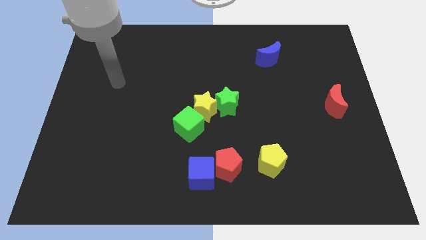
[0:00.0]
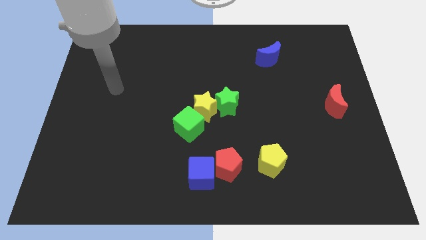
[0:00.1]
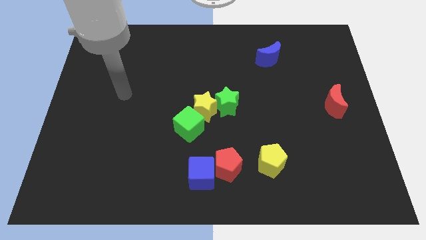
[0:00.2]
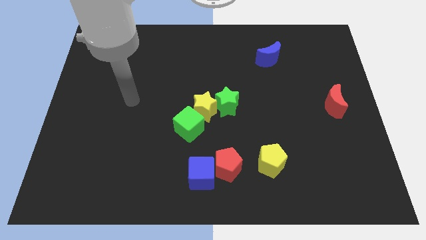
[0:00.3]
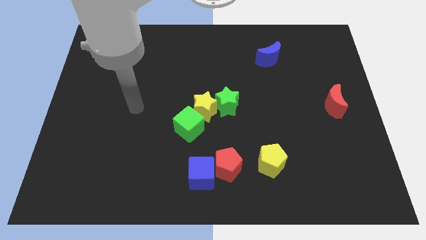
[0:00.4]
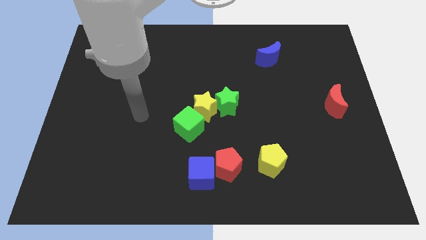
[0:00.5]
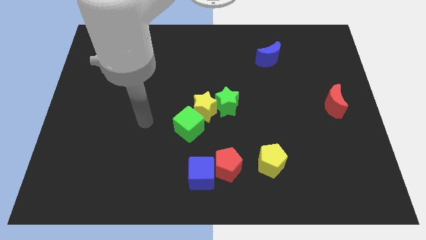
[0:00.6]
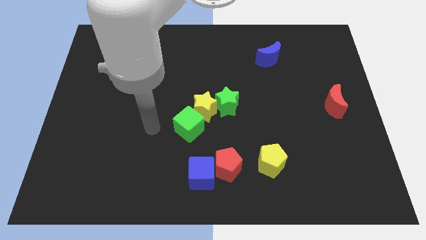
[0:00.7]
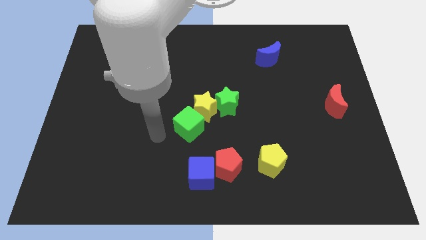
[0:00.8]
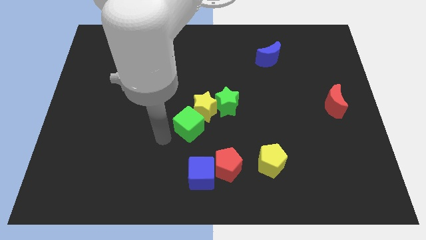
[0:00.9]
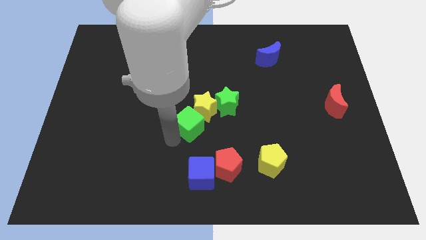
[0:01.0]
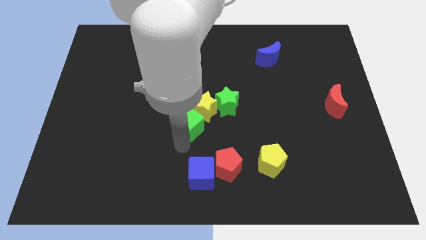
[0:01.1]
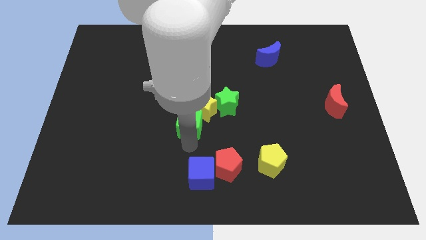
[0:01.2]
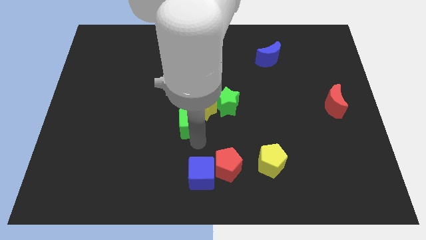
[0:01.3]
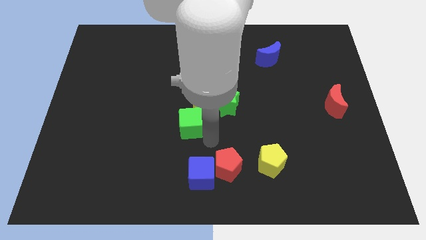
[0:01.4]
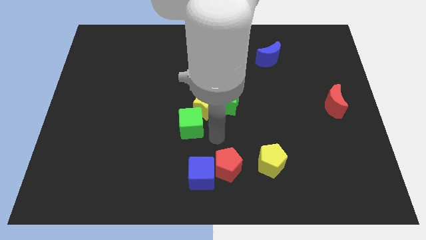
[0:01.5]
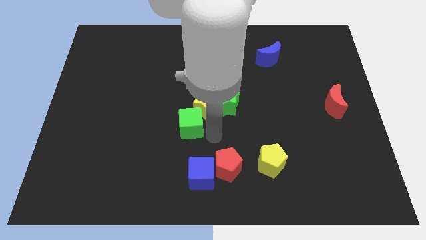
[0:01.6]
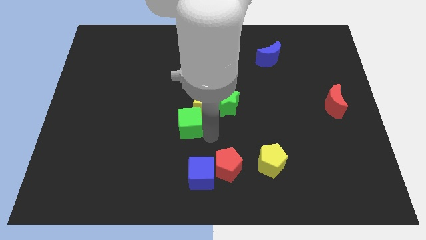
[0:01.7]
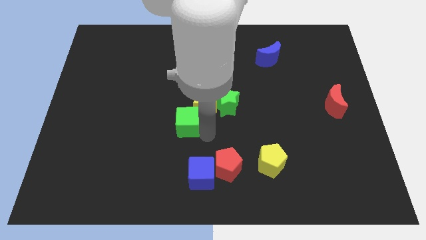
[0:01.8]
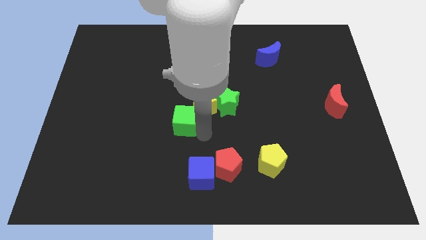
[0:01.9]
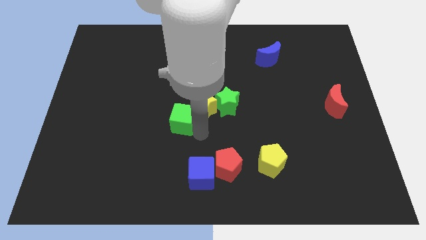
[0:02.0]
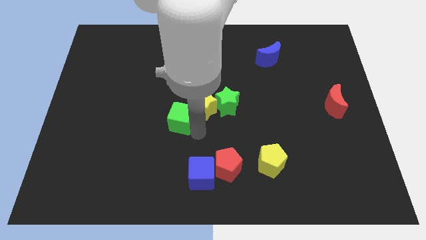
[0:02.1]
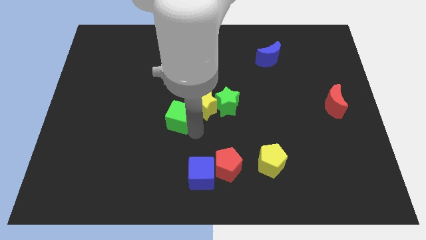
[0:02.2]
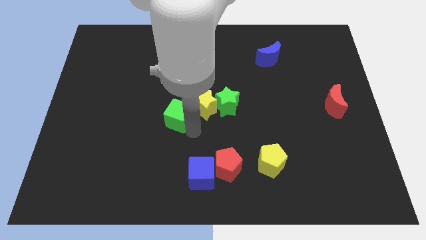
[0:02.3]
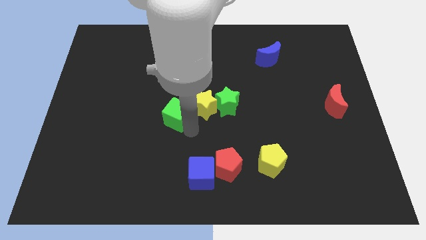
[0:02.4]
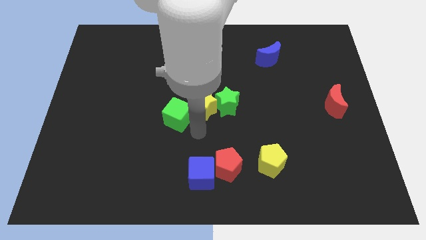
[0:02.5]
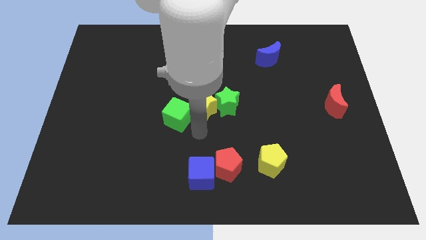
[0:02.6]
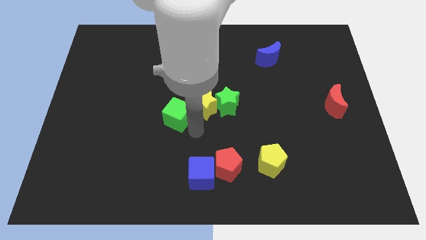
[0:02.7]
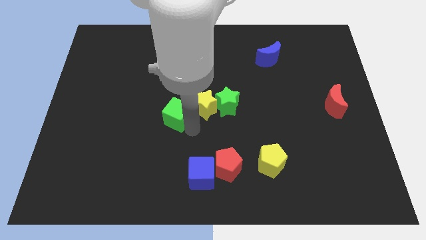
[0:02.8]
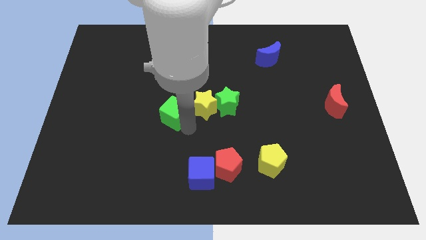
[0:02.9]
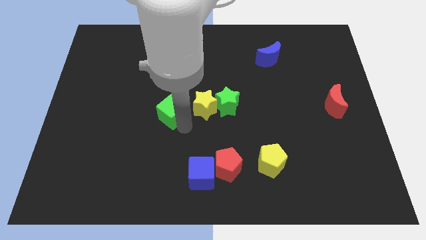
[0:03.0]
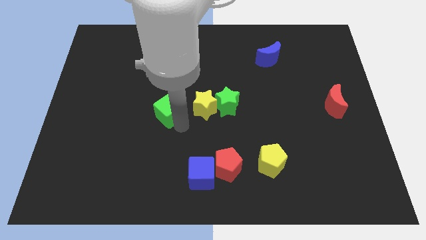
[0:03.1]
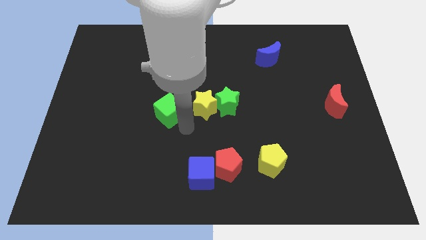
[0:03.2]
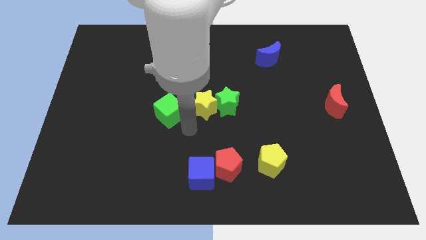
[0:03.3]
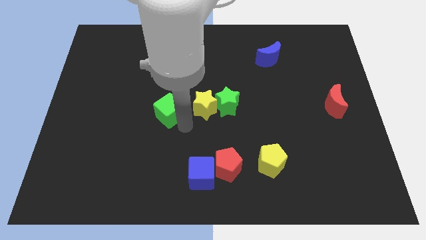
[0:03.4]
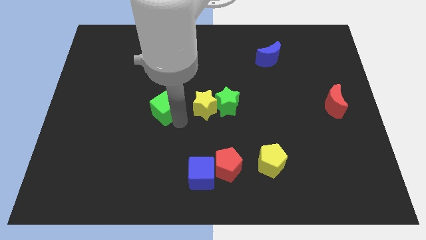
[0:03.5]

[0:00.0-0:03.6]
move the green cube up and then left a bit

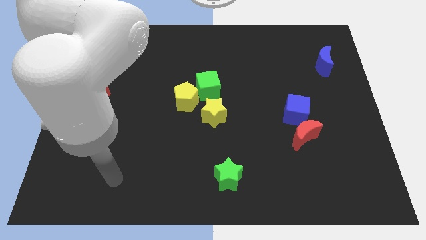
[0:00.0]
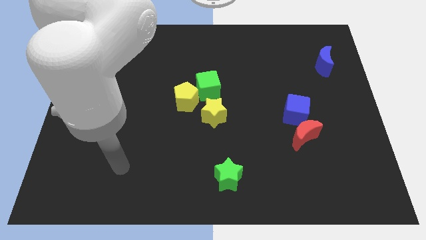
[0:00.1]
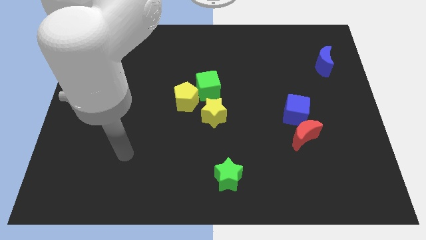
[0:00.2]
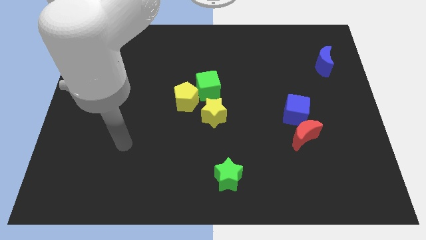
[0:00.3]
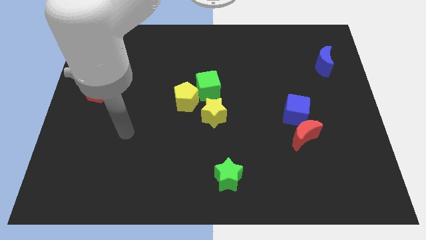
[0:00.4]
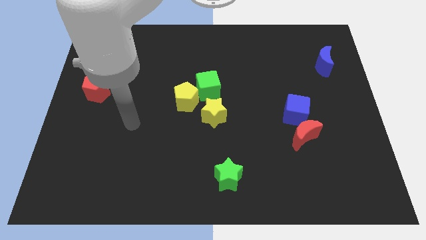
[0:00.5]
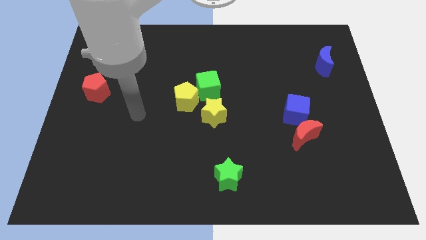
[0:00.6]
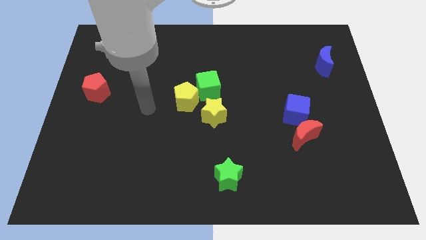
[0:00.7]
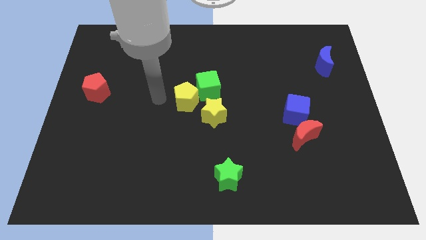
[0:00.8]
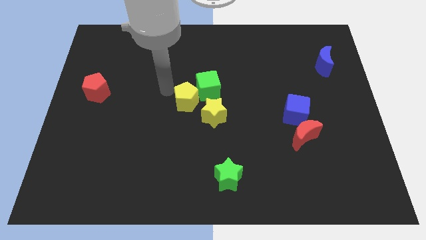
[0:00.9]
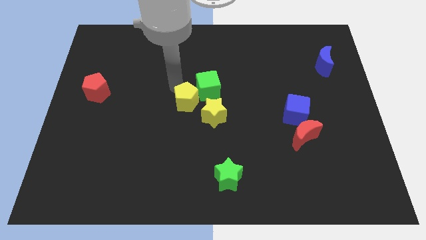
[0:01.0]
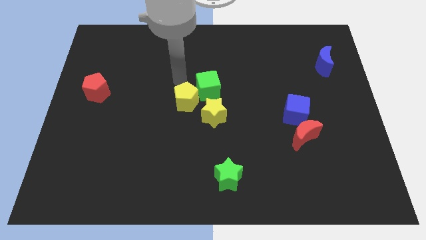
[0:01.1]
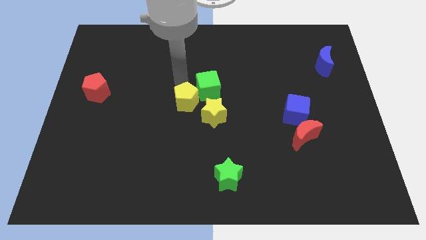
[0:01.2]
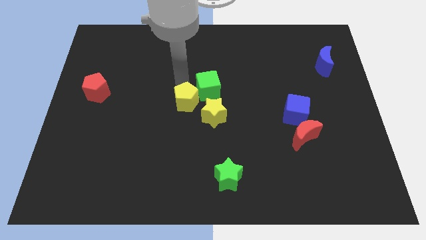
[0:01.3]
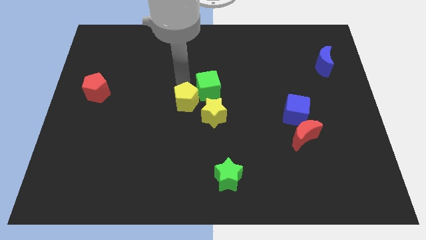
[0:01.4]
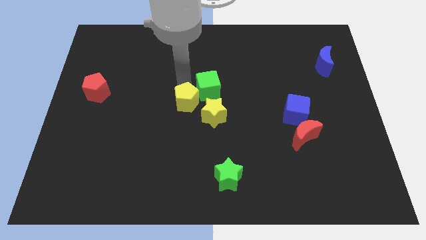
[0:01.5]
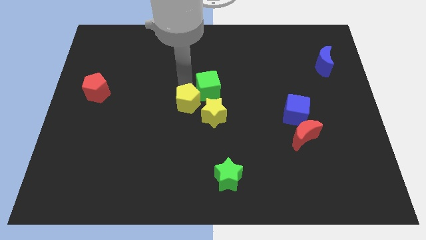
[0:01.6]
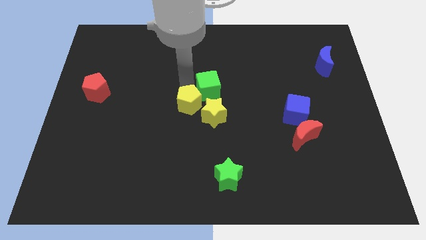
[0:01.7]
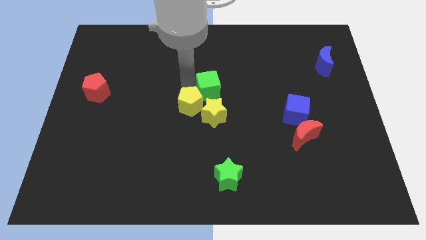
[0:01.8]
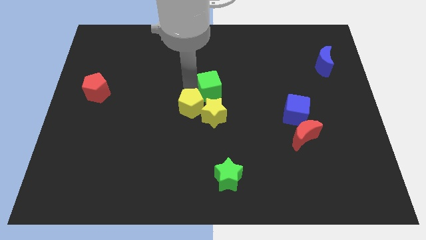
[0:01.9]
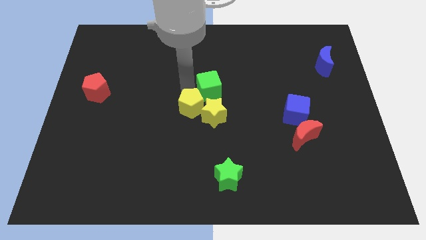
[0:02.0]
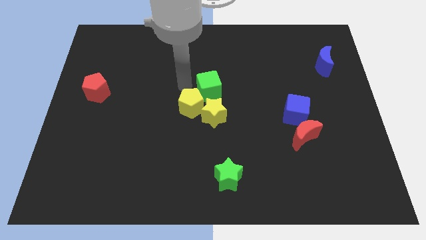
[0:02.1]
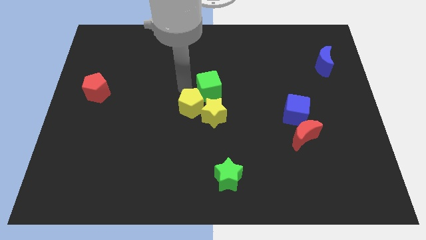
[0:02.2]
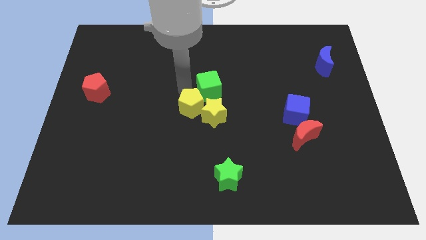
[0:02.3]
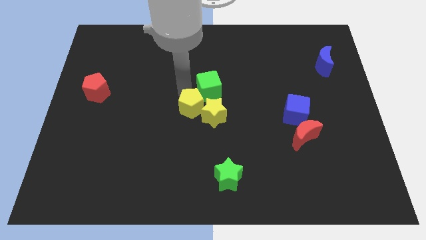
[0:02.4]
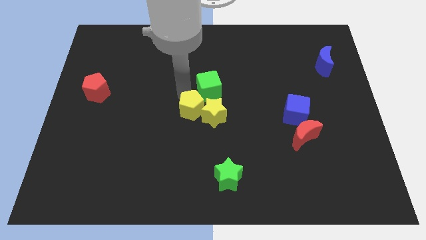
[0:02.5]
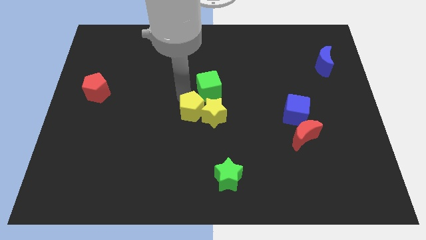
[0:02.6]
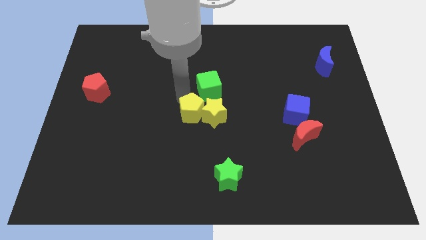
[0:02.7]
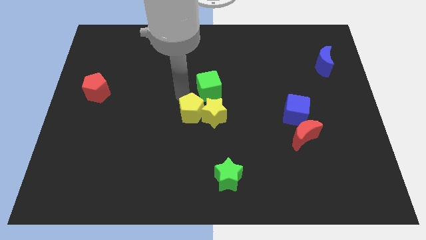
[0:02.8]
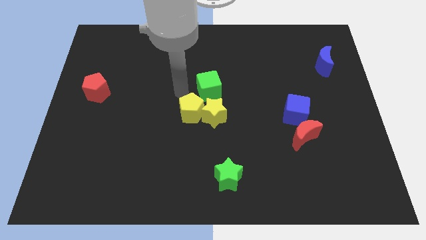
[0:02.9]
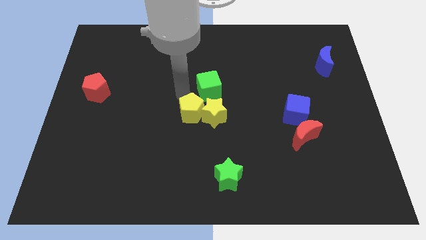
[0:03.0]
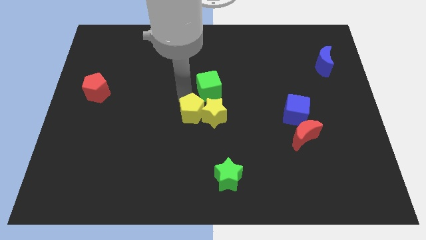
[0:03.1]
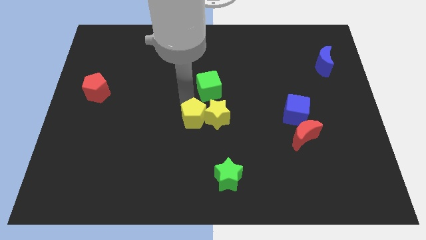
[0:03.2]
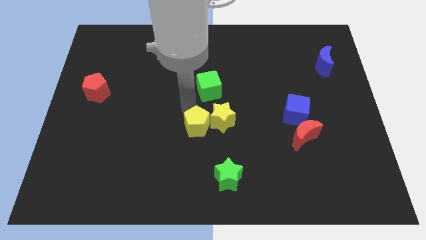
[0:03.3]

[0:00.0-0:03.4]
move the yellow pentagon slightly downwards and then right

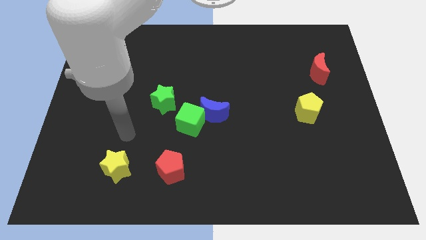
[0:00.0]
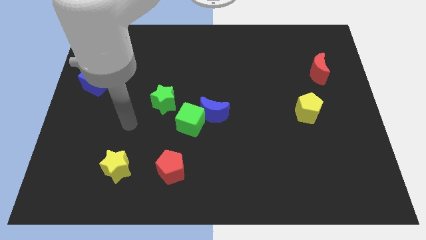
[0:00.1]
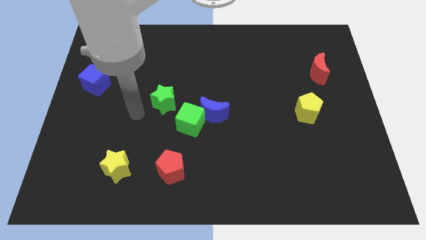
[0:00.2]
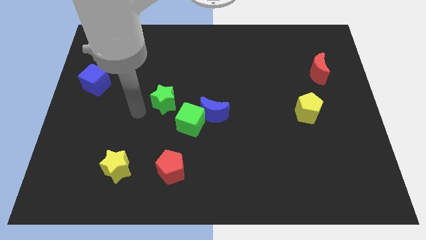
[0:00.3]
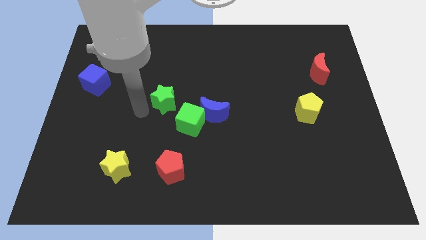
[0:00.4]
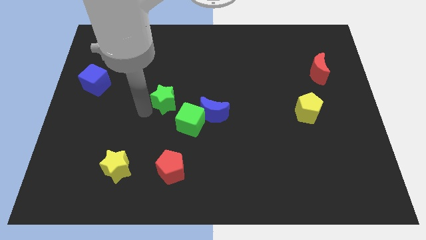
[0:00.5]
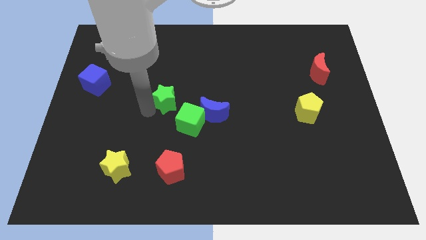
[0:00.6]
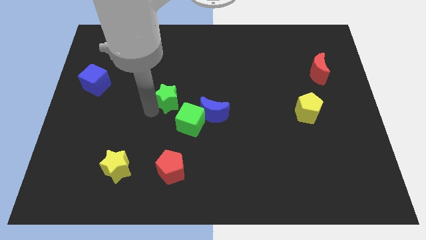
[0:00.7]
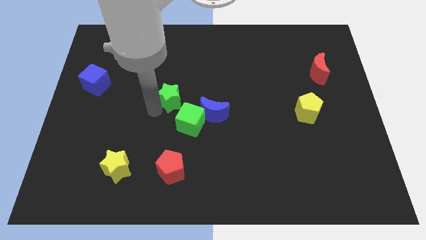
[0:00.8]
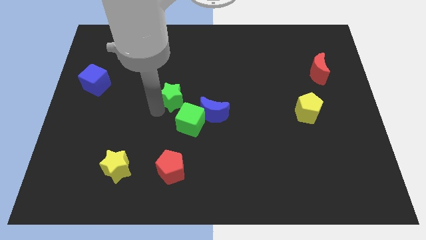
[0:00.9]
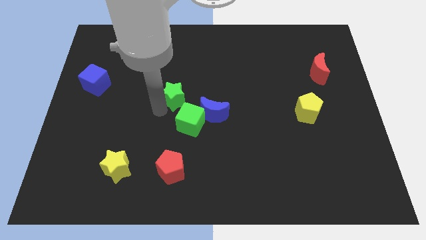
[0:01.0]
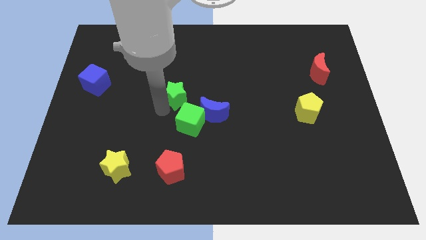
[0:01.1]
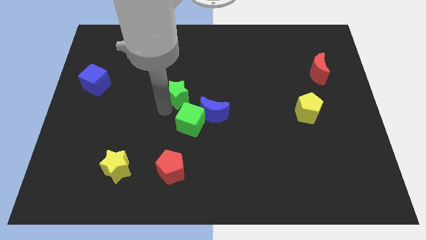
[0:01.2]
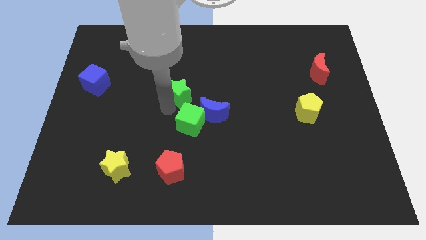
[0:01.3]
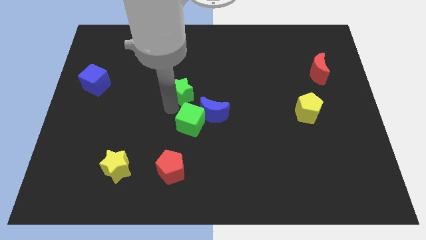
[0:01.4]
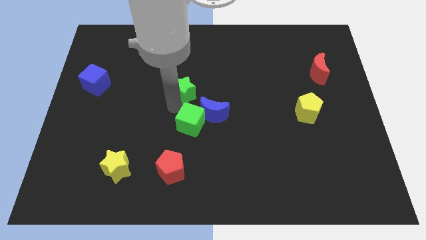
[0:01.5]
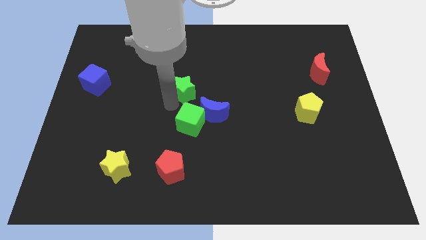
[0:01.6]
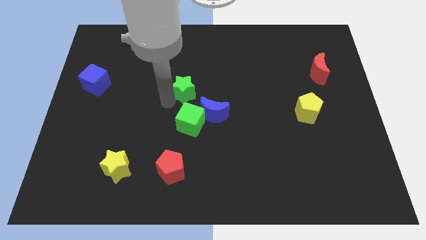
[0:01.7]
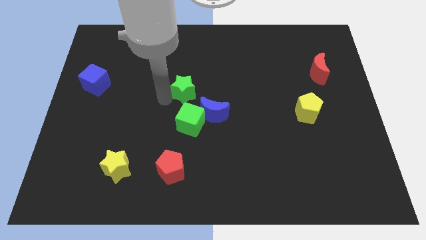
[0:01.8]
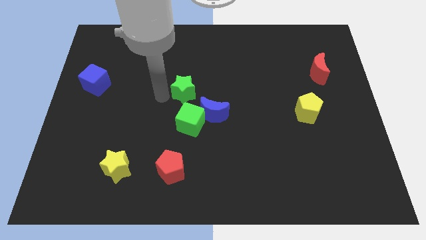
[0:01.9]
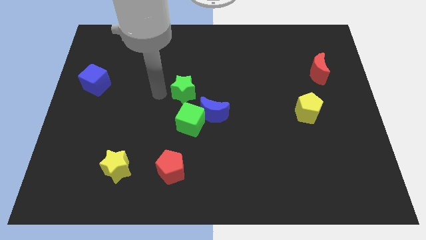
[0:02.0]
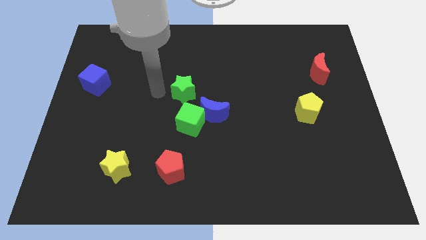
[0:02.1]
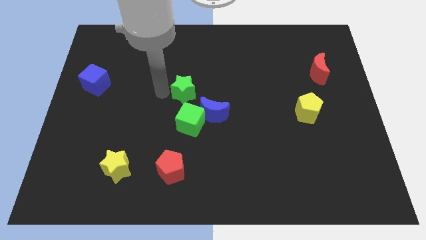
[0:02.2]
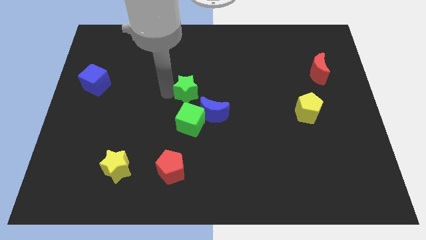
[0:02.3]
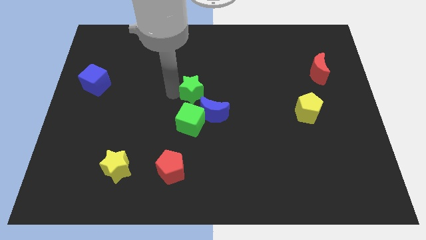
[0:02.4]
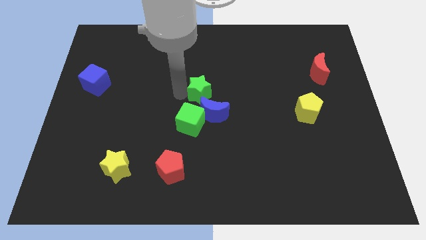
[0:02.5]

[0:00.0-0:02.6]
move the green star a little right
